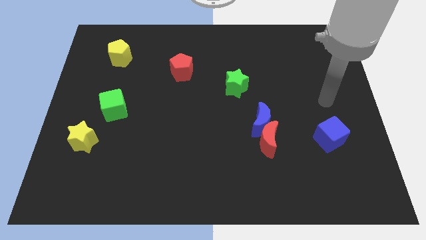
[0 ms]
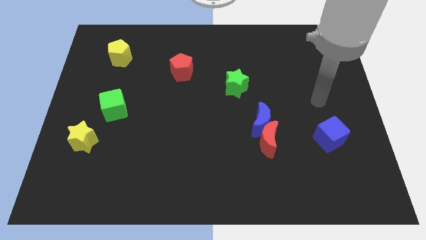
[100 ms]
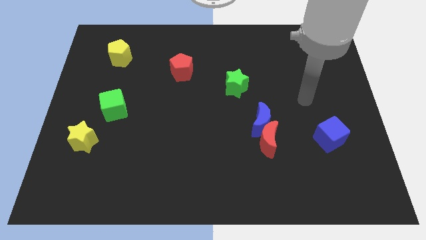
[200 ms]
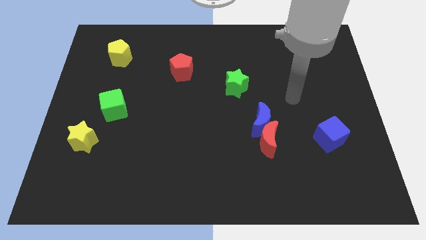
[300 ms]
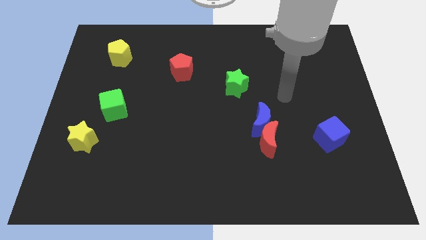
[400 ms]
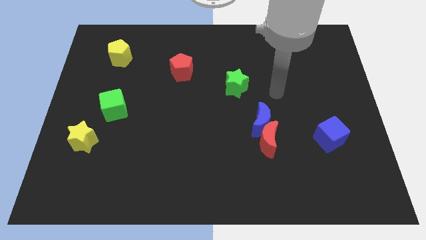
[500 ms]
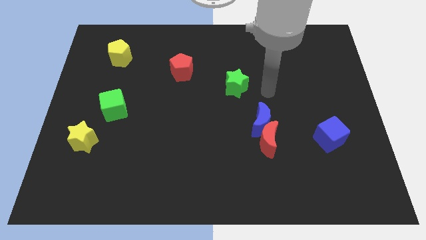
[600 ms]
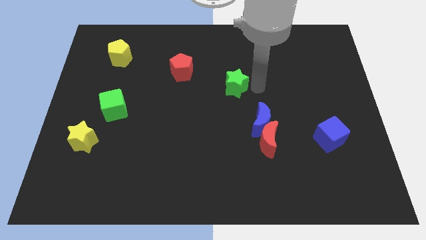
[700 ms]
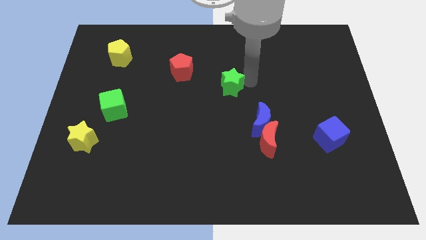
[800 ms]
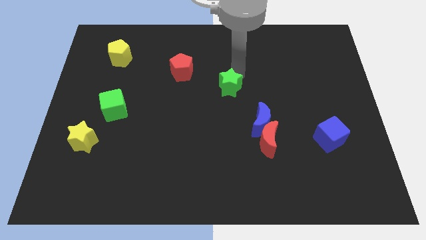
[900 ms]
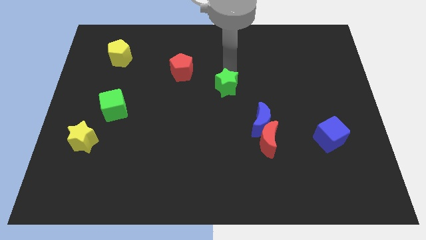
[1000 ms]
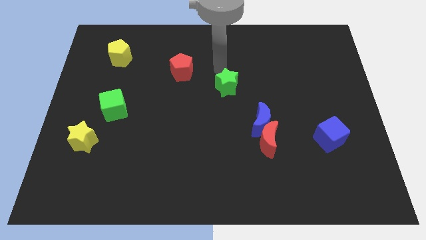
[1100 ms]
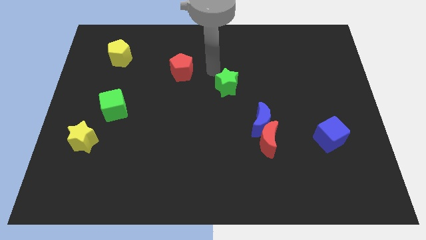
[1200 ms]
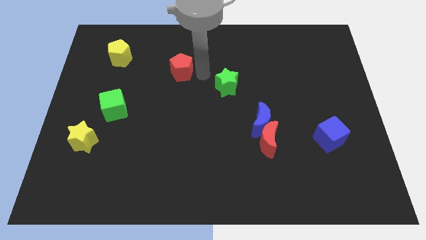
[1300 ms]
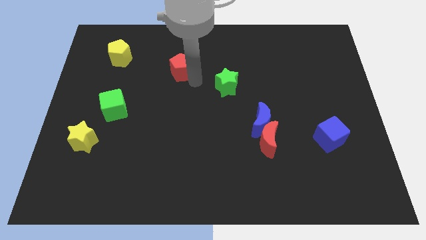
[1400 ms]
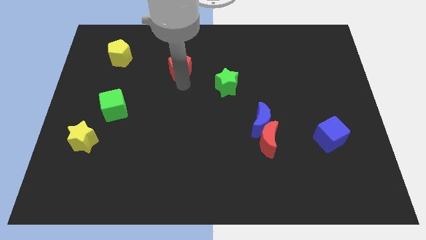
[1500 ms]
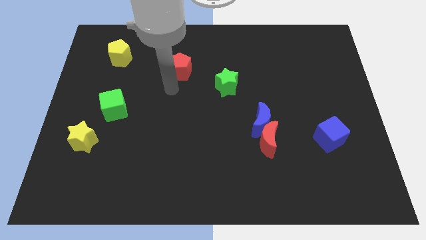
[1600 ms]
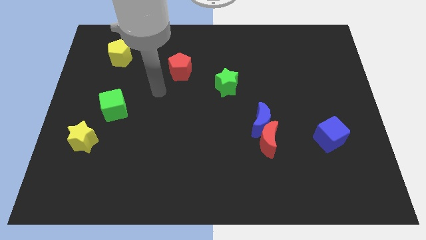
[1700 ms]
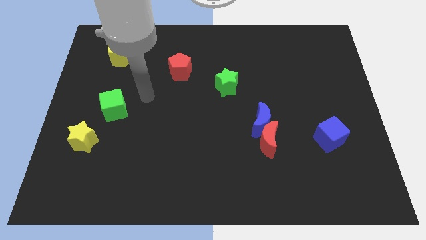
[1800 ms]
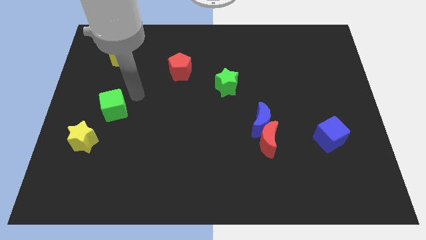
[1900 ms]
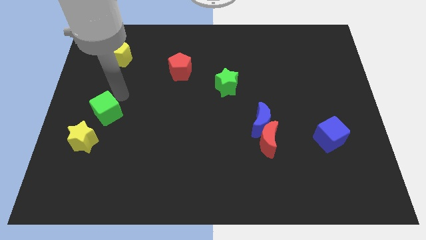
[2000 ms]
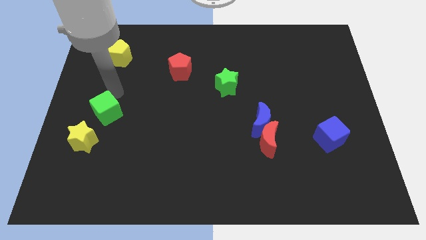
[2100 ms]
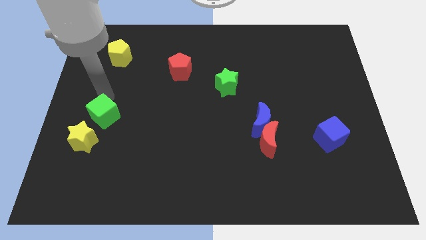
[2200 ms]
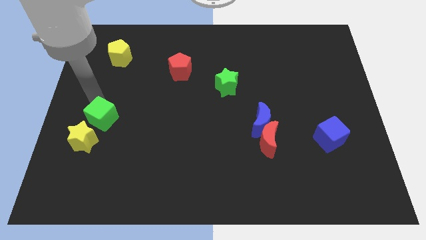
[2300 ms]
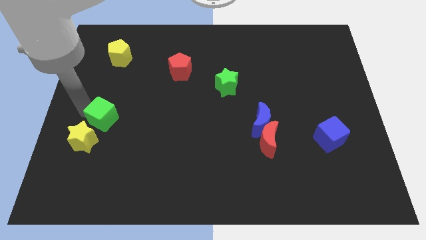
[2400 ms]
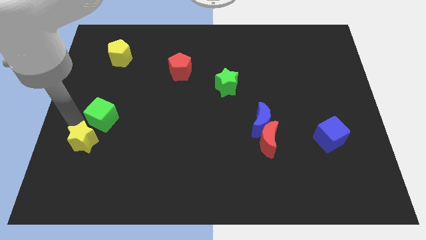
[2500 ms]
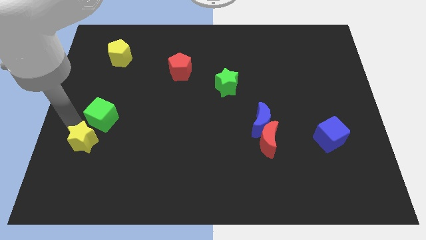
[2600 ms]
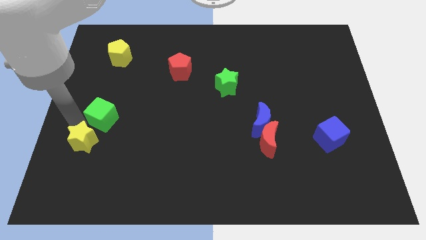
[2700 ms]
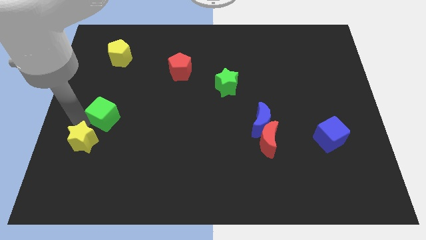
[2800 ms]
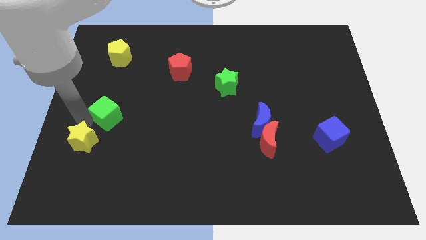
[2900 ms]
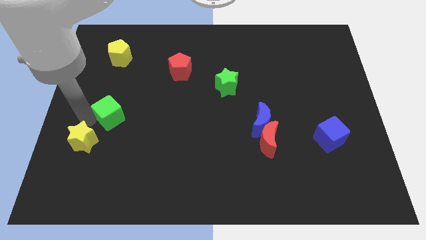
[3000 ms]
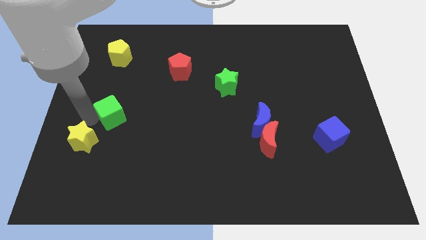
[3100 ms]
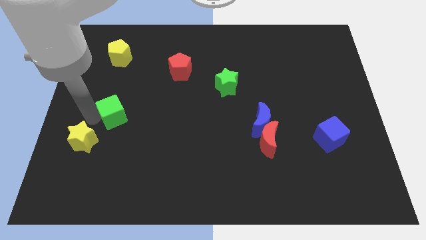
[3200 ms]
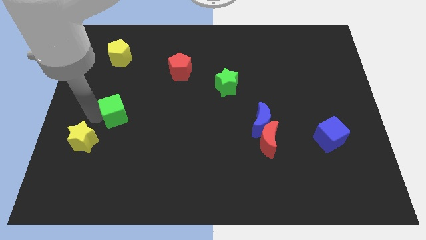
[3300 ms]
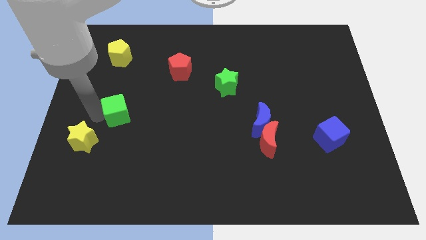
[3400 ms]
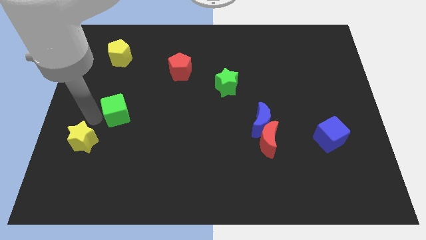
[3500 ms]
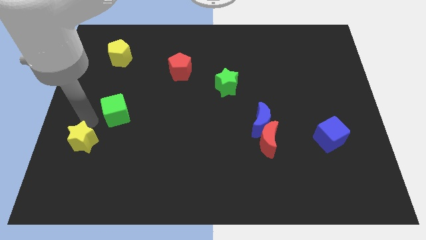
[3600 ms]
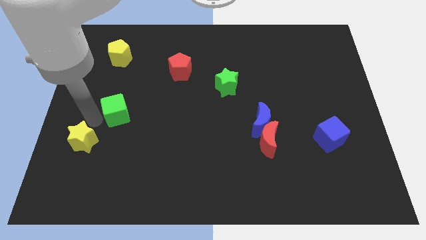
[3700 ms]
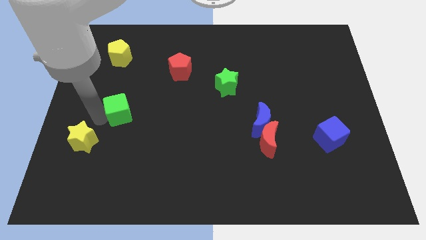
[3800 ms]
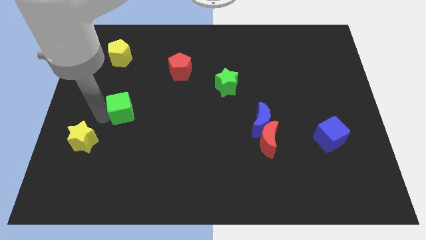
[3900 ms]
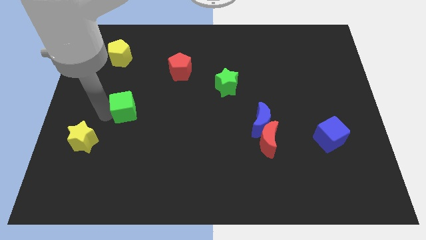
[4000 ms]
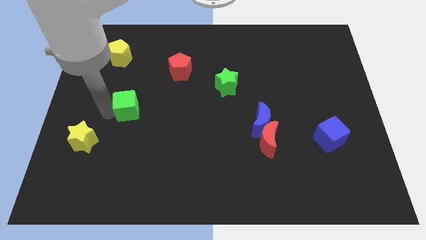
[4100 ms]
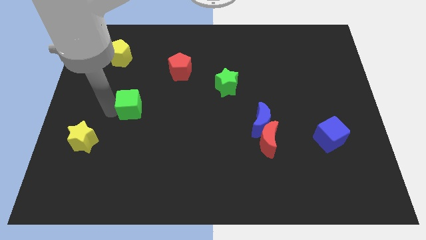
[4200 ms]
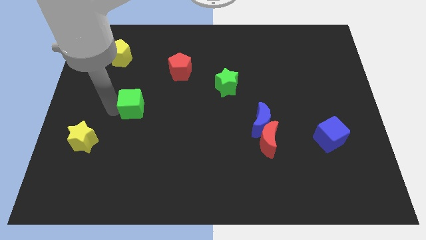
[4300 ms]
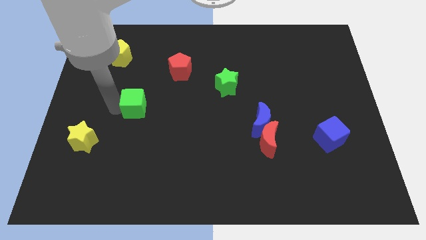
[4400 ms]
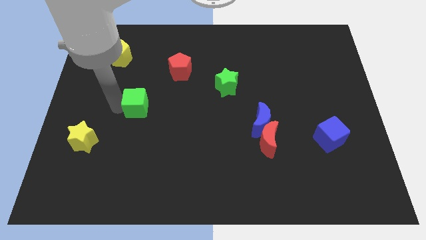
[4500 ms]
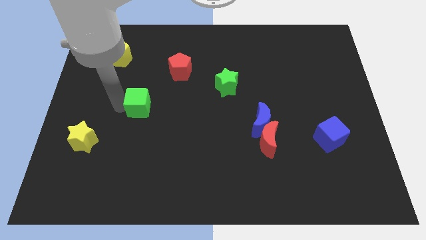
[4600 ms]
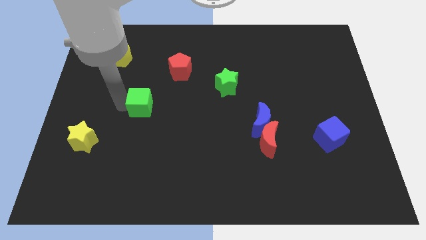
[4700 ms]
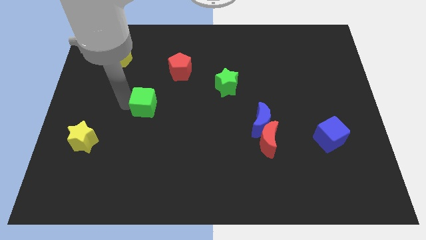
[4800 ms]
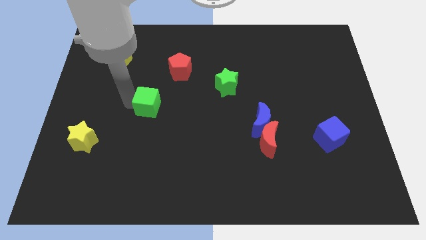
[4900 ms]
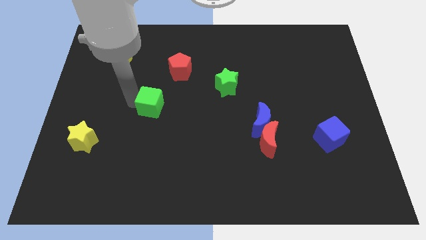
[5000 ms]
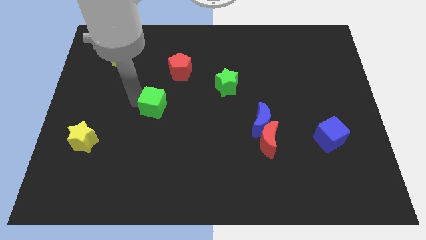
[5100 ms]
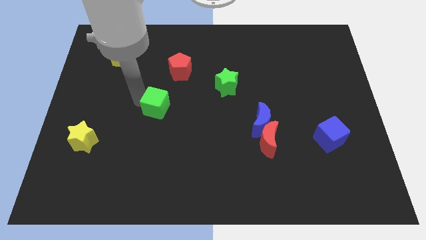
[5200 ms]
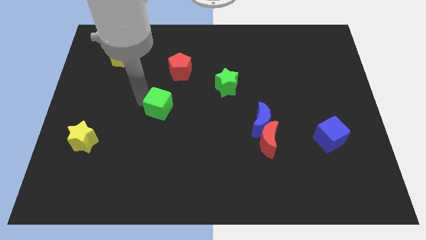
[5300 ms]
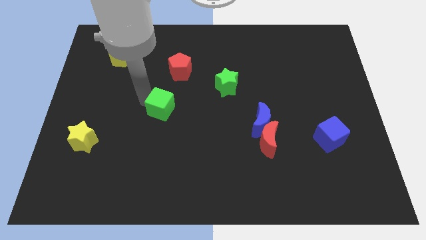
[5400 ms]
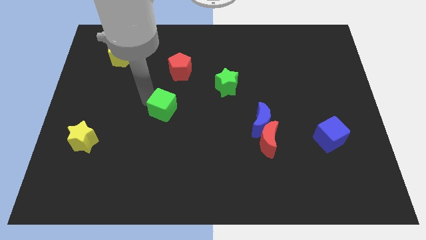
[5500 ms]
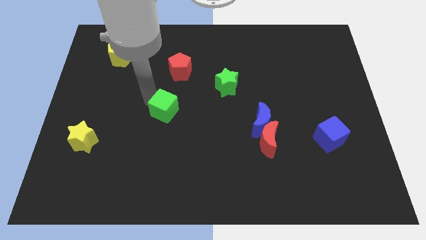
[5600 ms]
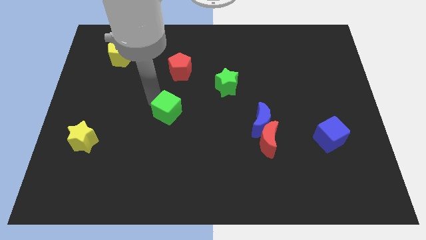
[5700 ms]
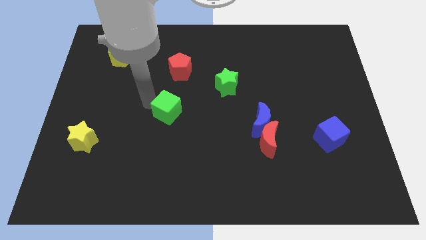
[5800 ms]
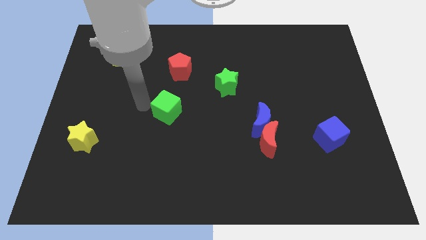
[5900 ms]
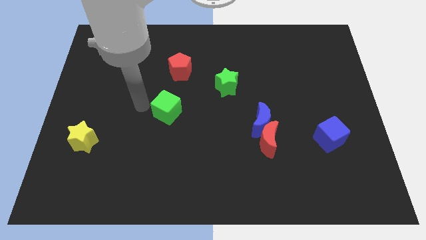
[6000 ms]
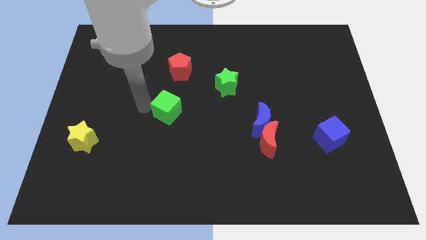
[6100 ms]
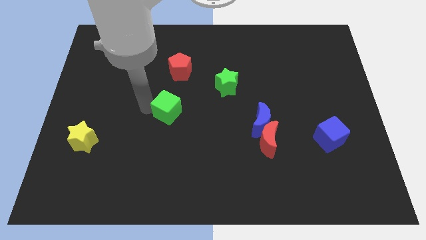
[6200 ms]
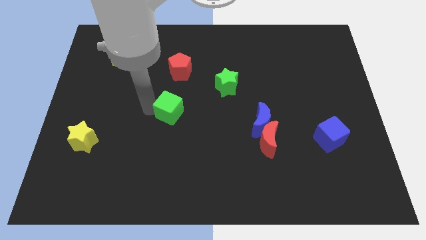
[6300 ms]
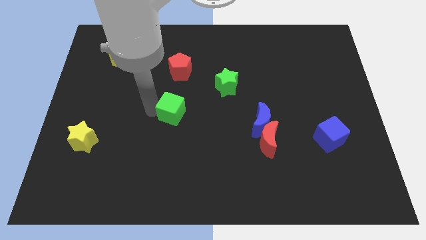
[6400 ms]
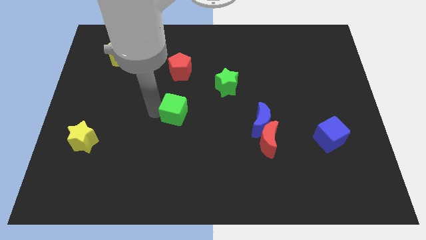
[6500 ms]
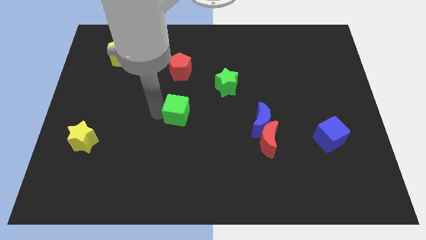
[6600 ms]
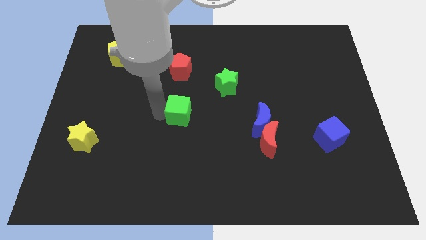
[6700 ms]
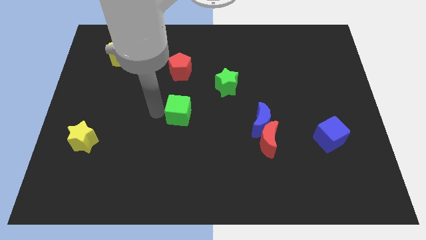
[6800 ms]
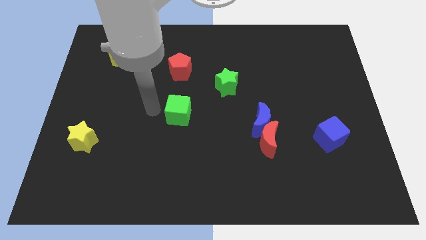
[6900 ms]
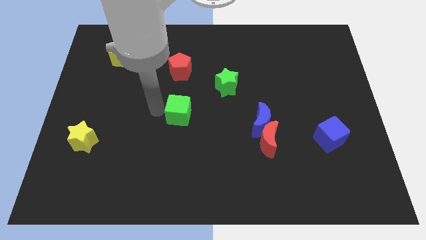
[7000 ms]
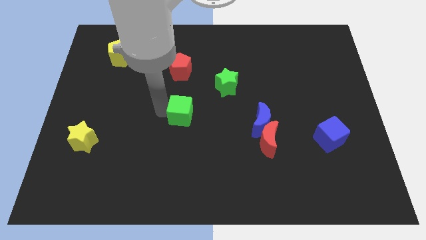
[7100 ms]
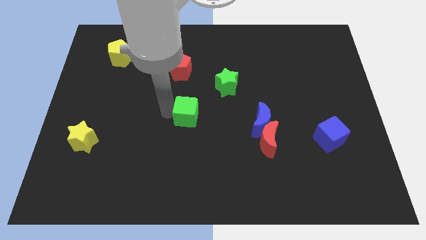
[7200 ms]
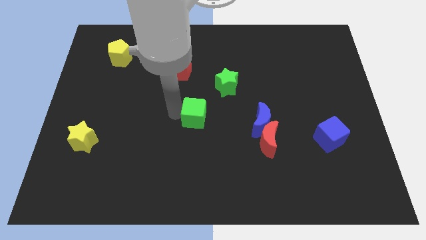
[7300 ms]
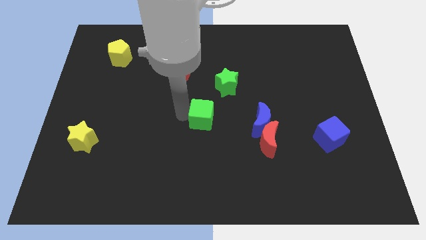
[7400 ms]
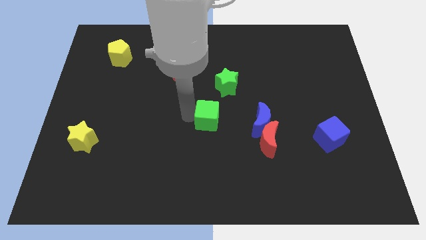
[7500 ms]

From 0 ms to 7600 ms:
slide the green cube to the bottom of the green star

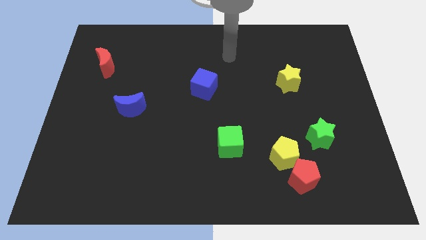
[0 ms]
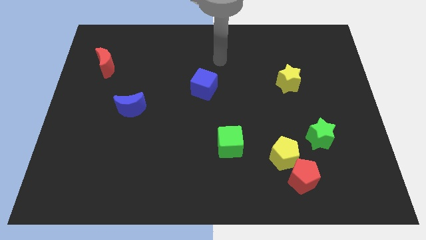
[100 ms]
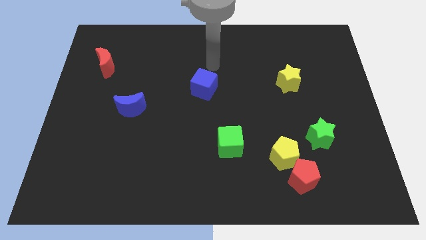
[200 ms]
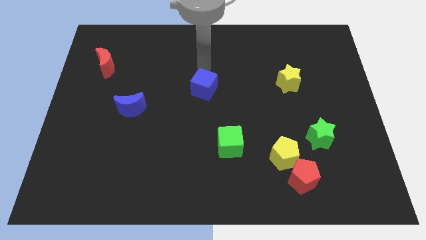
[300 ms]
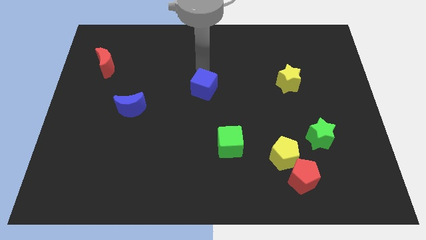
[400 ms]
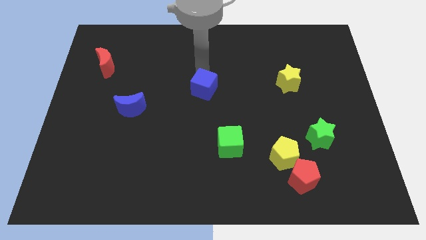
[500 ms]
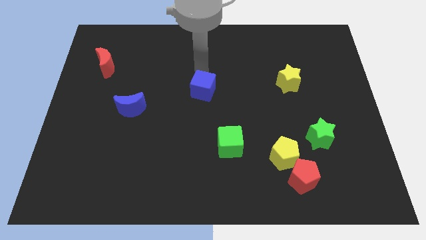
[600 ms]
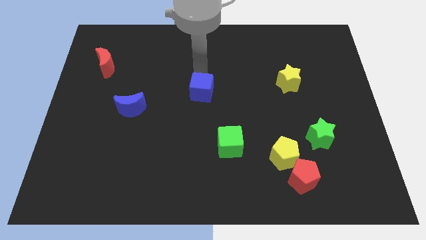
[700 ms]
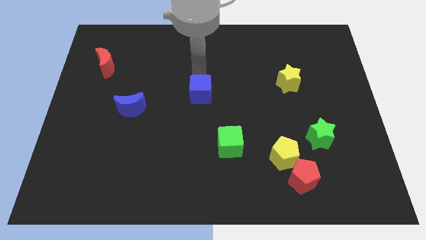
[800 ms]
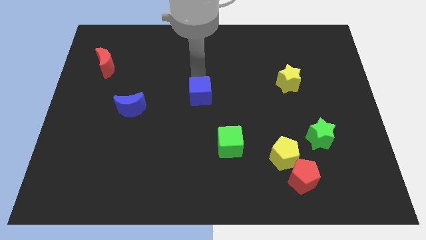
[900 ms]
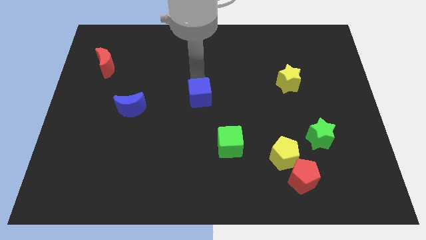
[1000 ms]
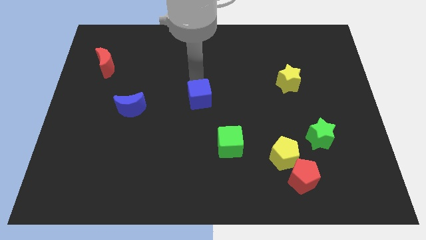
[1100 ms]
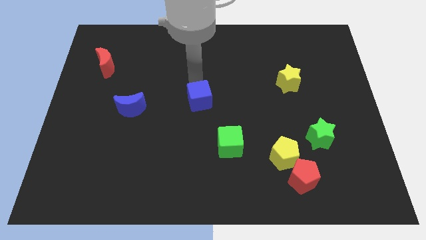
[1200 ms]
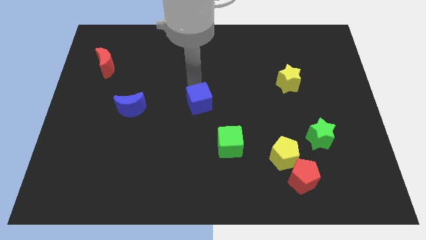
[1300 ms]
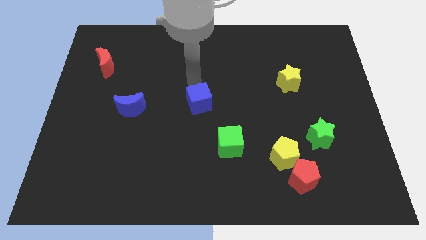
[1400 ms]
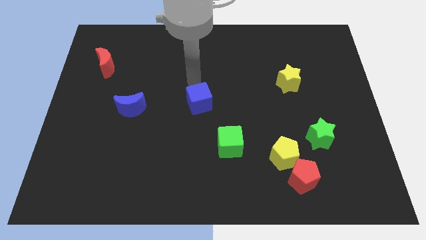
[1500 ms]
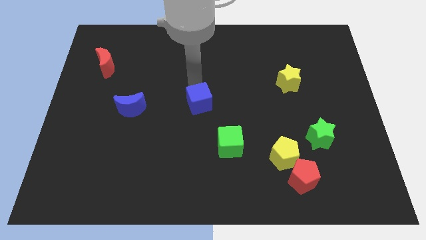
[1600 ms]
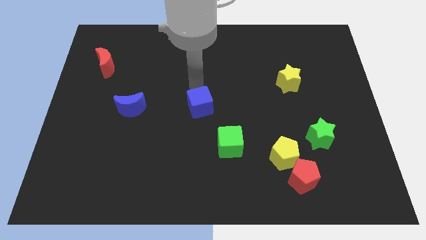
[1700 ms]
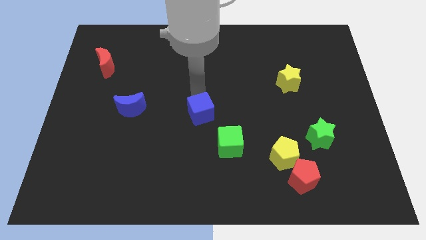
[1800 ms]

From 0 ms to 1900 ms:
move the blue cube to the top left of the green cube
